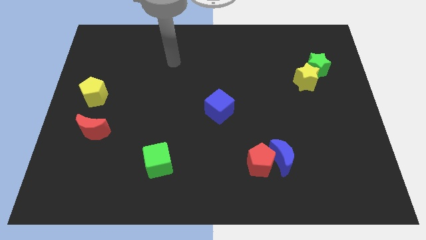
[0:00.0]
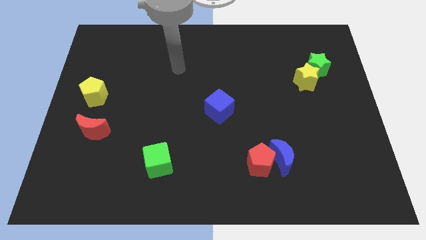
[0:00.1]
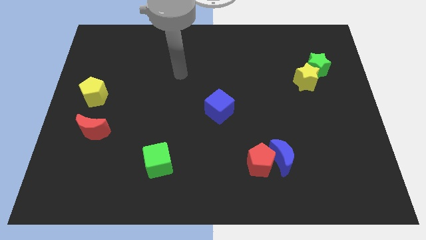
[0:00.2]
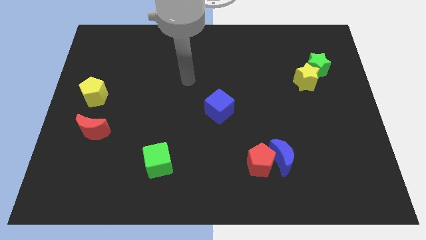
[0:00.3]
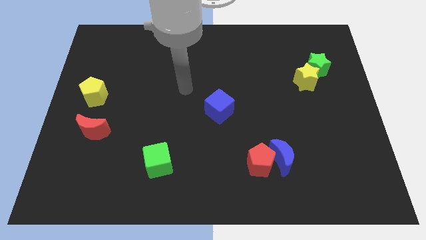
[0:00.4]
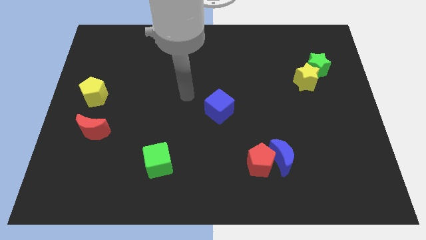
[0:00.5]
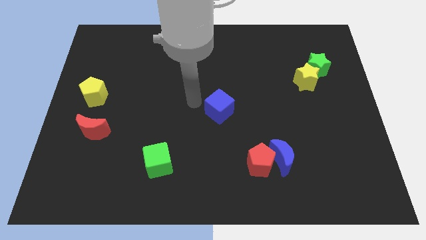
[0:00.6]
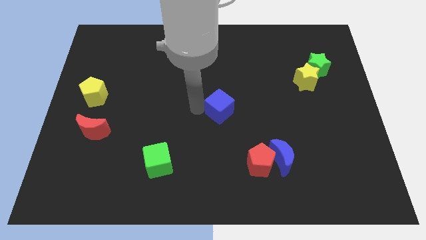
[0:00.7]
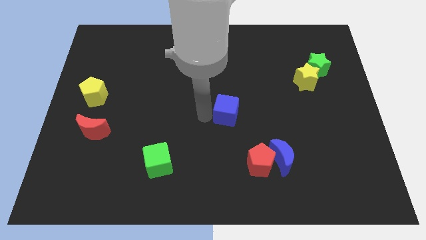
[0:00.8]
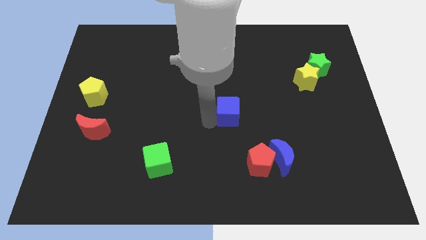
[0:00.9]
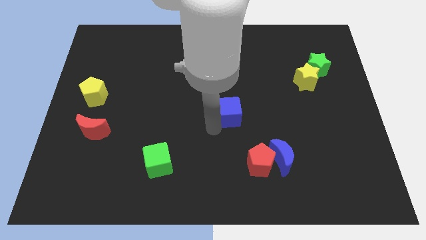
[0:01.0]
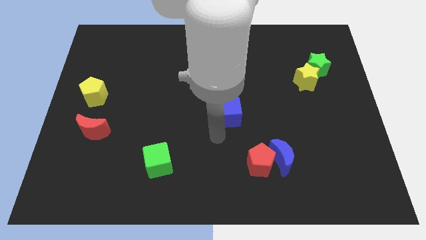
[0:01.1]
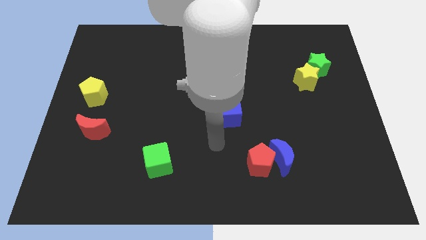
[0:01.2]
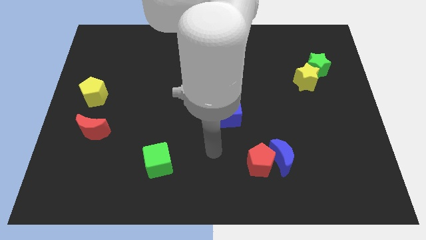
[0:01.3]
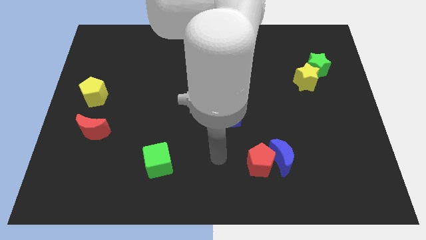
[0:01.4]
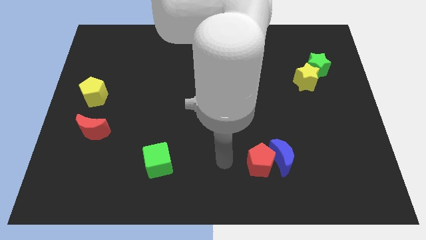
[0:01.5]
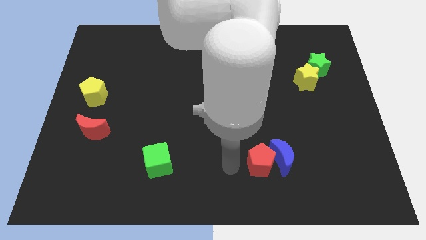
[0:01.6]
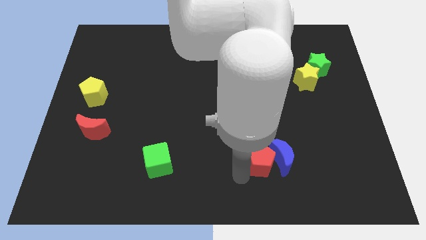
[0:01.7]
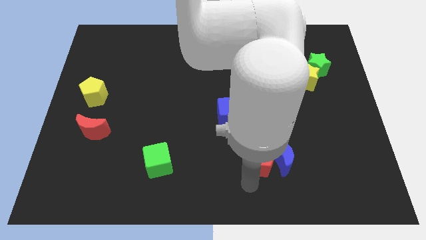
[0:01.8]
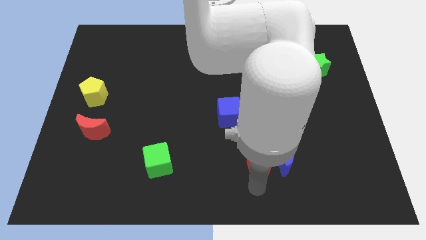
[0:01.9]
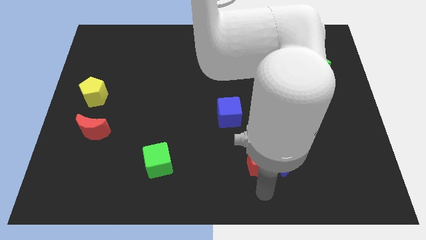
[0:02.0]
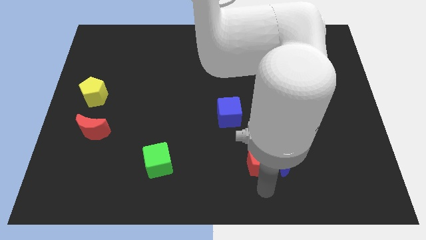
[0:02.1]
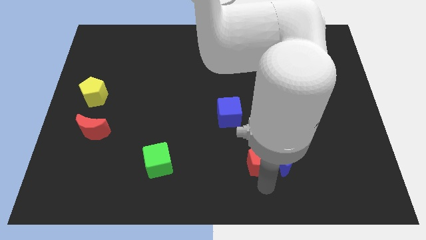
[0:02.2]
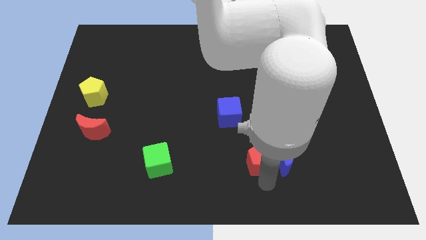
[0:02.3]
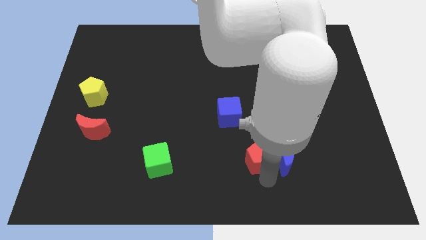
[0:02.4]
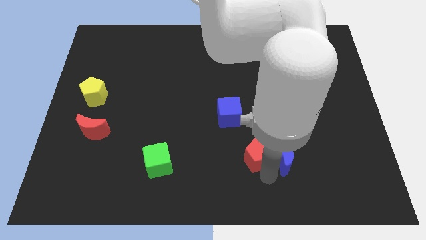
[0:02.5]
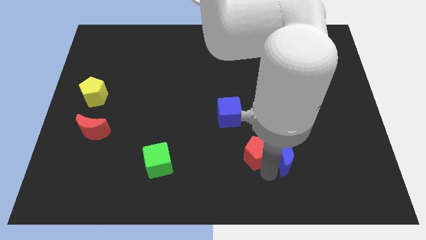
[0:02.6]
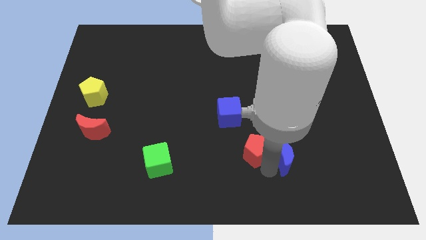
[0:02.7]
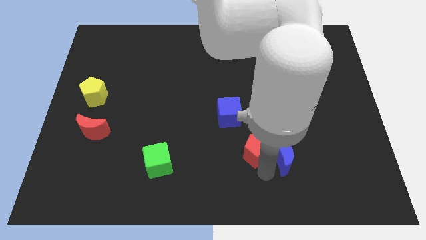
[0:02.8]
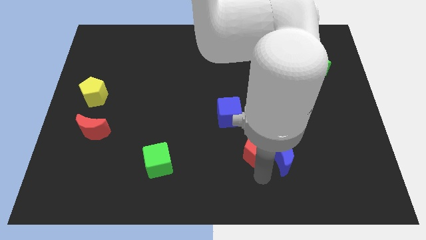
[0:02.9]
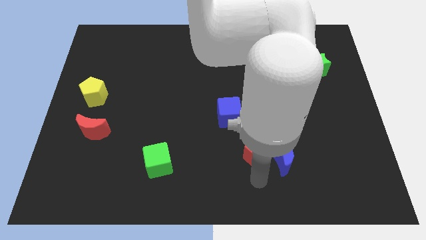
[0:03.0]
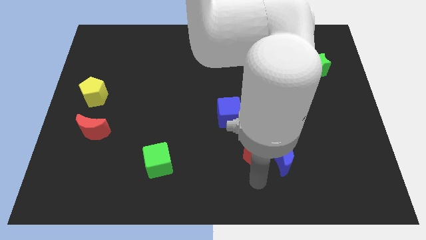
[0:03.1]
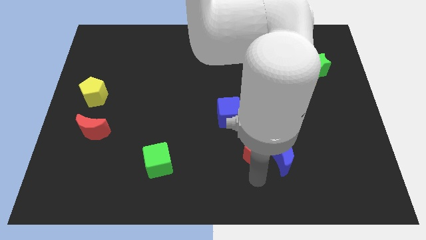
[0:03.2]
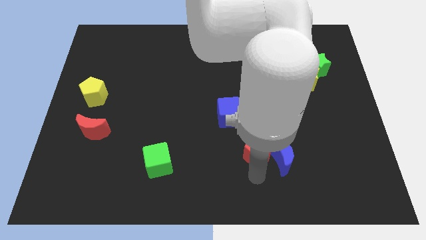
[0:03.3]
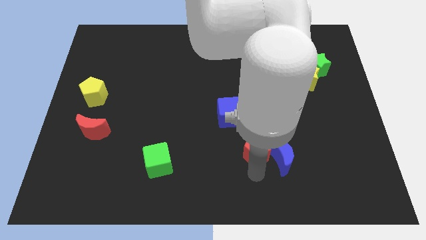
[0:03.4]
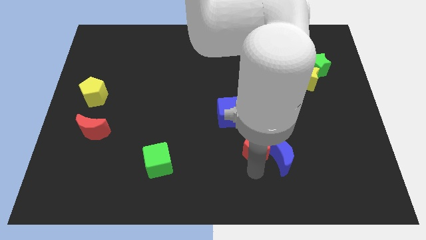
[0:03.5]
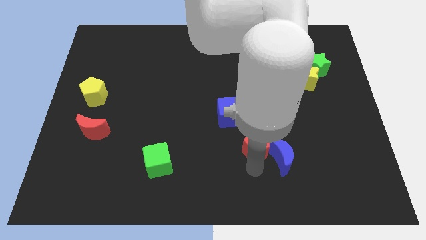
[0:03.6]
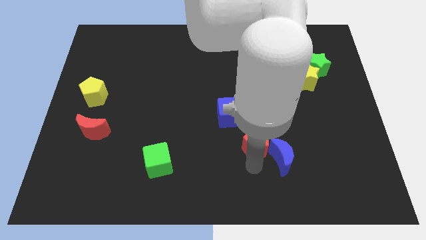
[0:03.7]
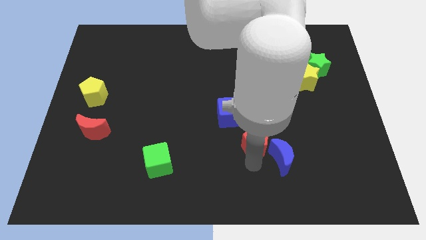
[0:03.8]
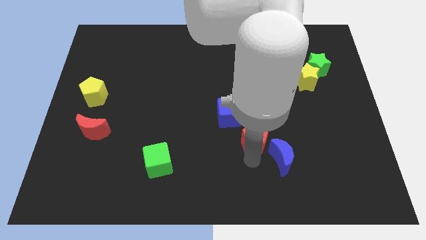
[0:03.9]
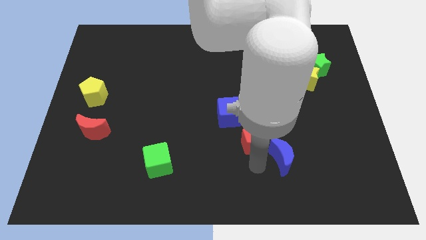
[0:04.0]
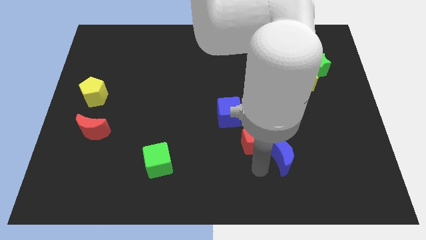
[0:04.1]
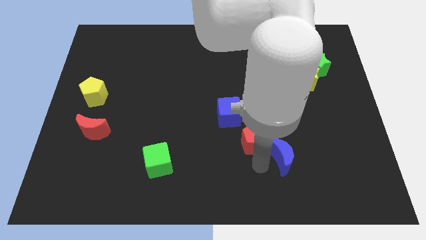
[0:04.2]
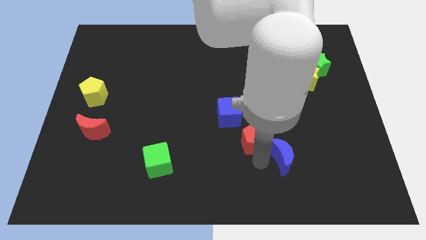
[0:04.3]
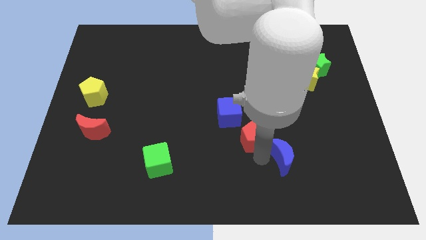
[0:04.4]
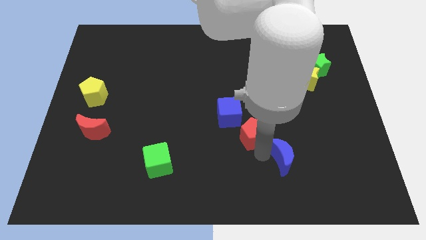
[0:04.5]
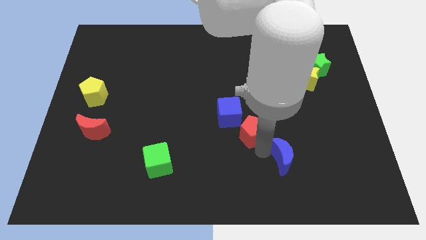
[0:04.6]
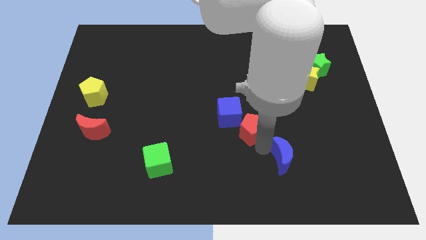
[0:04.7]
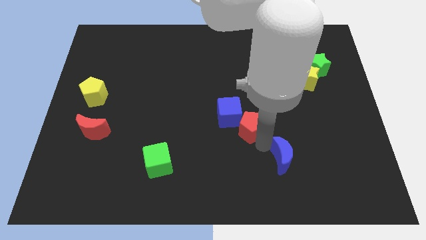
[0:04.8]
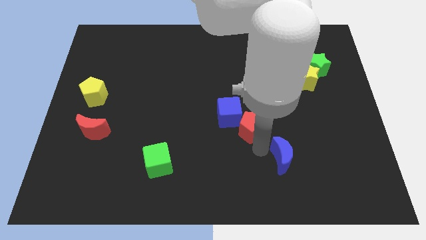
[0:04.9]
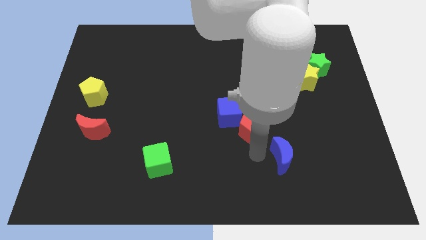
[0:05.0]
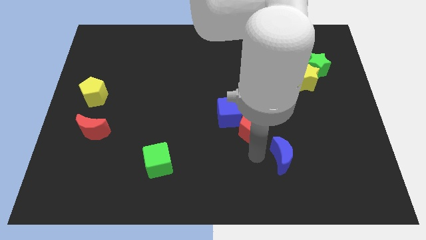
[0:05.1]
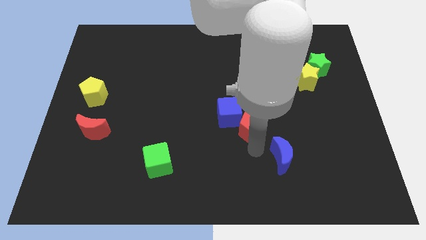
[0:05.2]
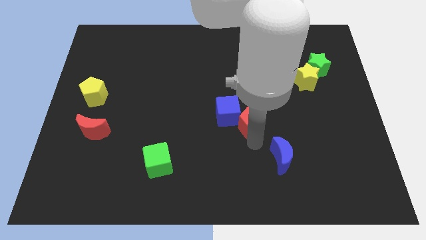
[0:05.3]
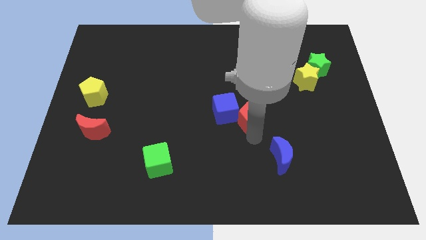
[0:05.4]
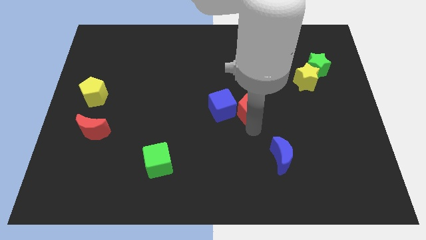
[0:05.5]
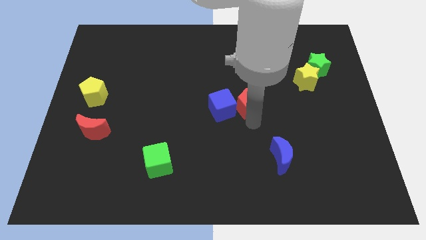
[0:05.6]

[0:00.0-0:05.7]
slide the red pentagon to the top right side of the blue cube
